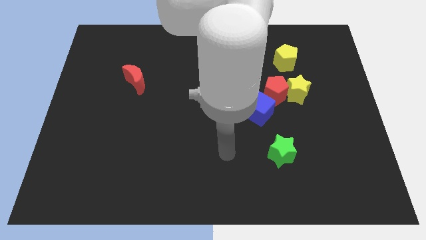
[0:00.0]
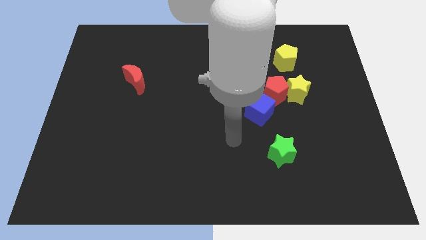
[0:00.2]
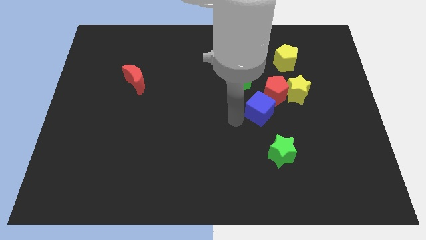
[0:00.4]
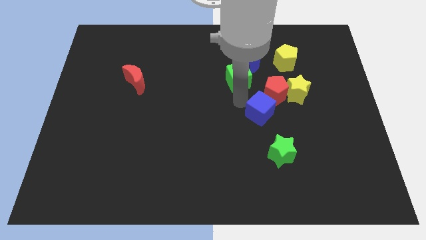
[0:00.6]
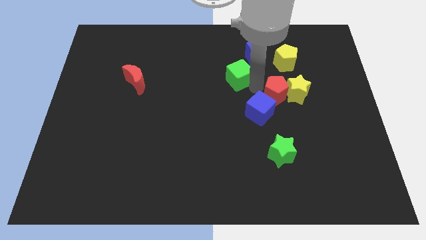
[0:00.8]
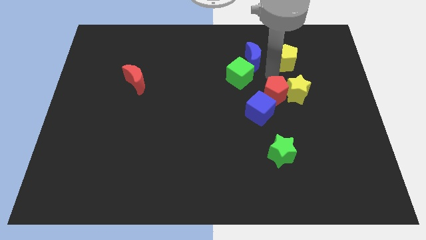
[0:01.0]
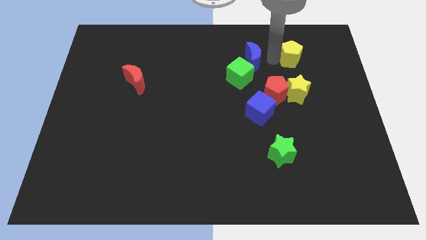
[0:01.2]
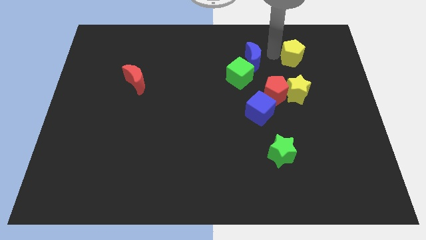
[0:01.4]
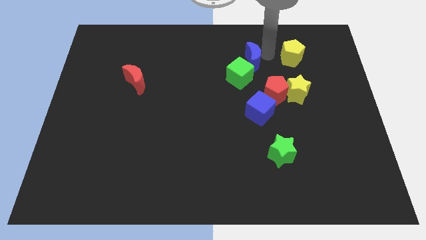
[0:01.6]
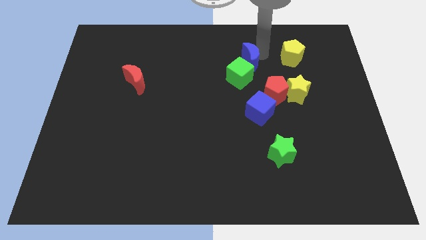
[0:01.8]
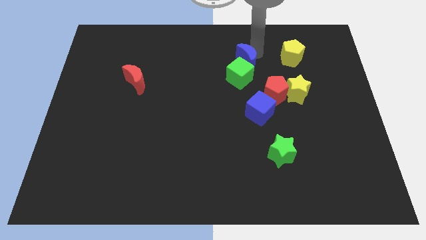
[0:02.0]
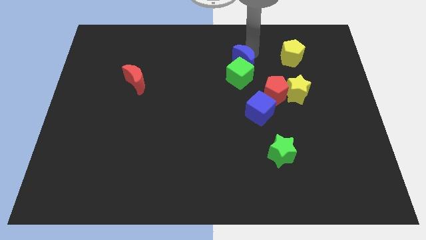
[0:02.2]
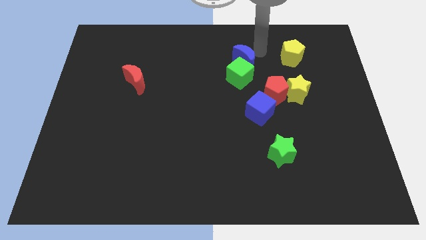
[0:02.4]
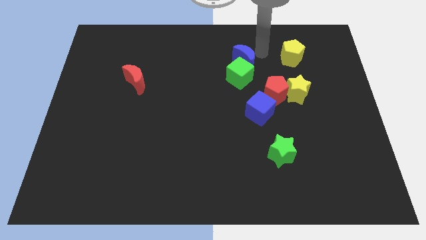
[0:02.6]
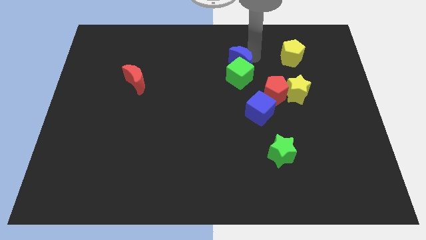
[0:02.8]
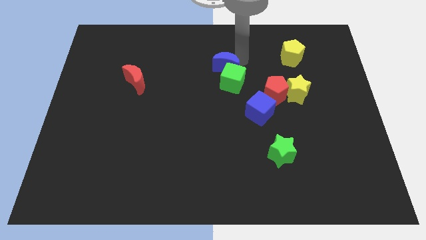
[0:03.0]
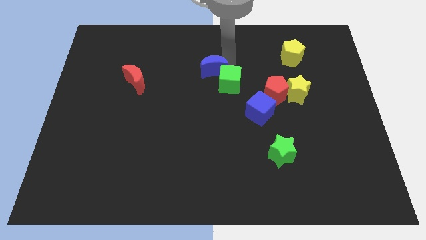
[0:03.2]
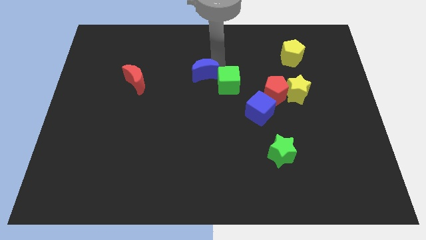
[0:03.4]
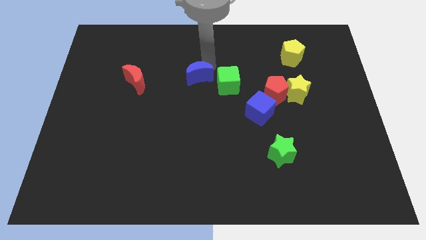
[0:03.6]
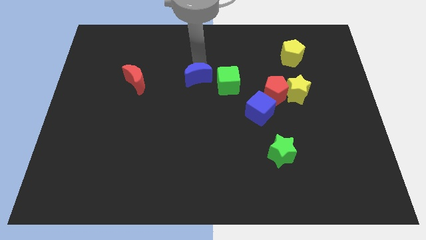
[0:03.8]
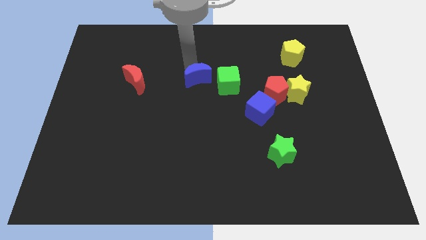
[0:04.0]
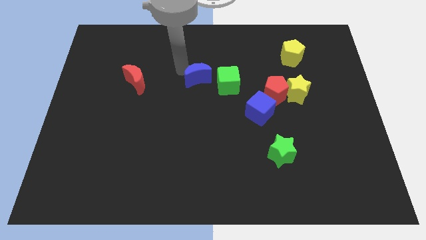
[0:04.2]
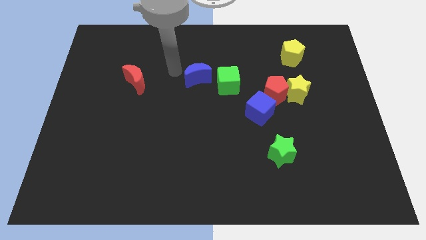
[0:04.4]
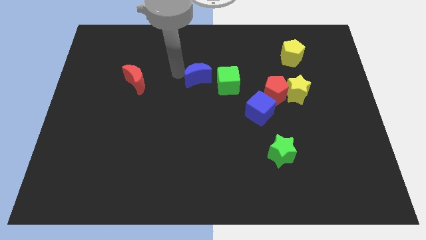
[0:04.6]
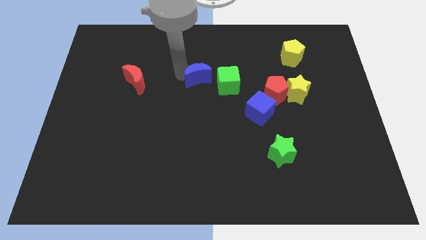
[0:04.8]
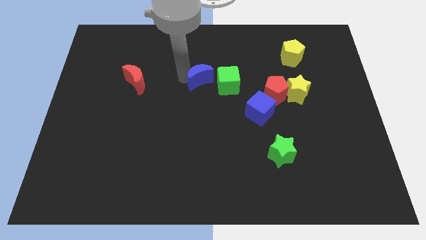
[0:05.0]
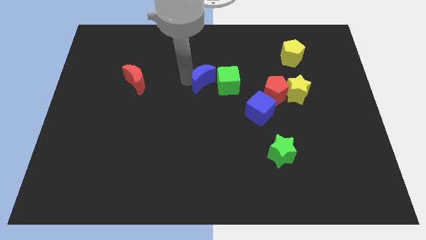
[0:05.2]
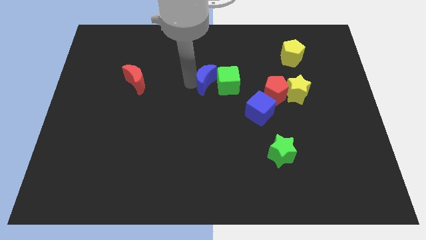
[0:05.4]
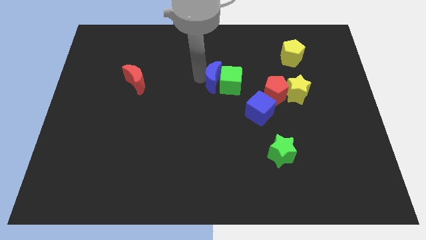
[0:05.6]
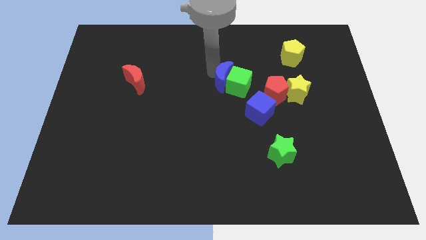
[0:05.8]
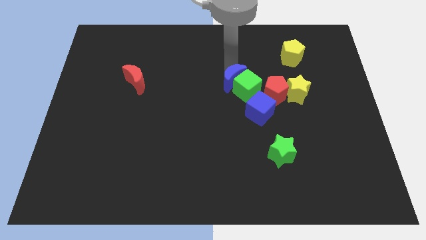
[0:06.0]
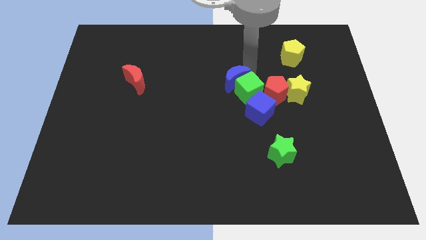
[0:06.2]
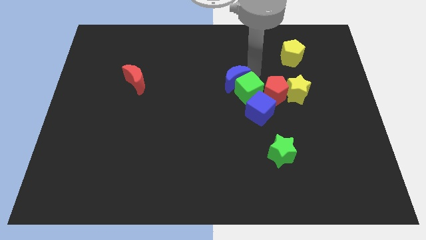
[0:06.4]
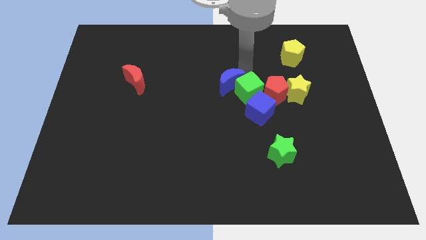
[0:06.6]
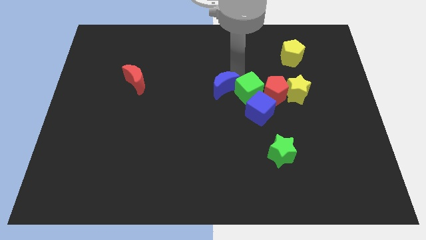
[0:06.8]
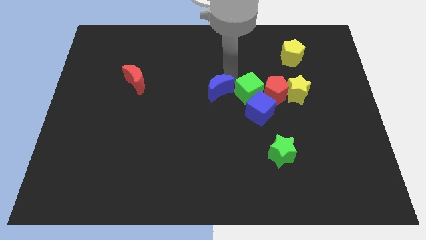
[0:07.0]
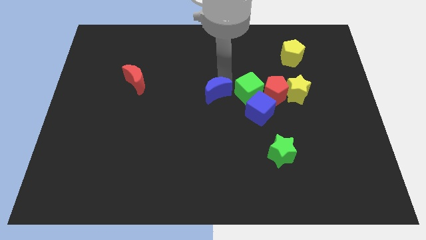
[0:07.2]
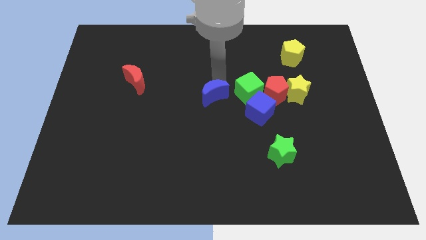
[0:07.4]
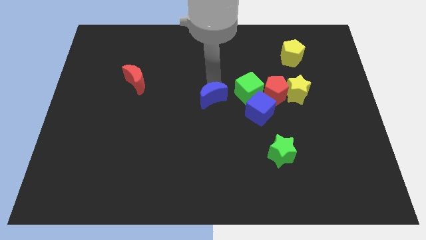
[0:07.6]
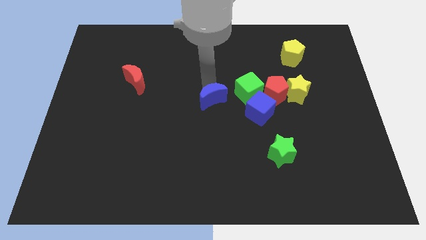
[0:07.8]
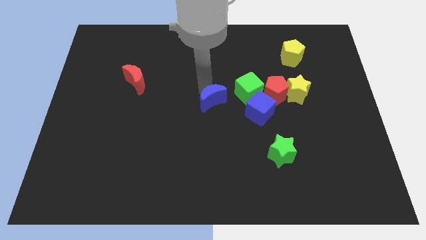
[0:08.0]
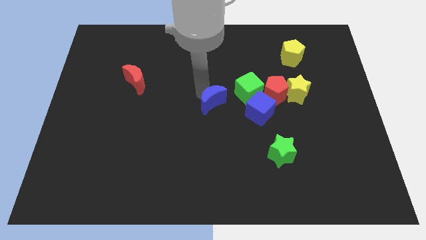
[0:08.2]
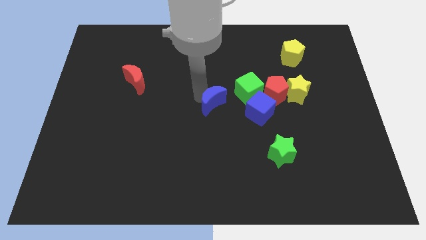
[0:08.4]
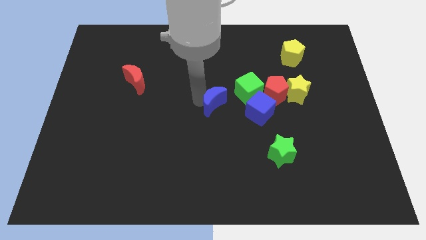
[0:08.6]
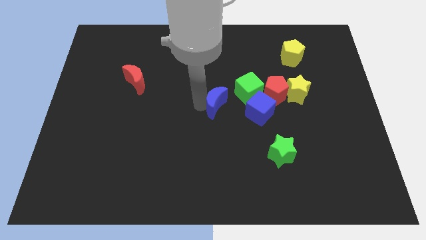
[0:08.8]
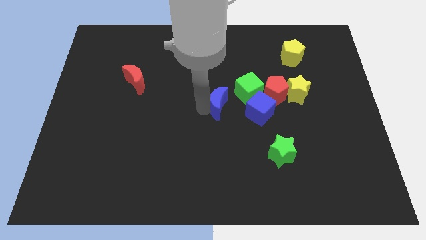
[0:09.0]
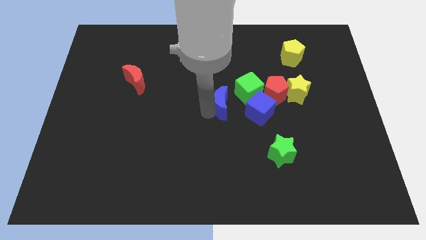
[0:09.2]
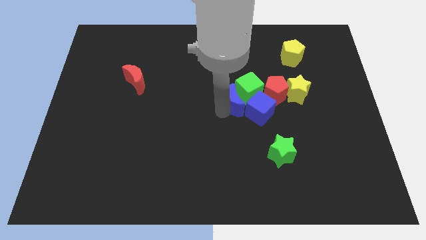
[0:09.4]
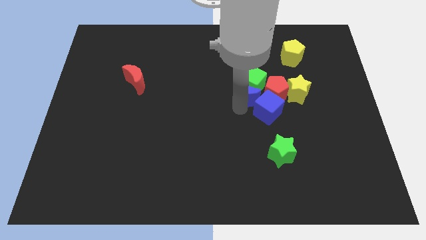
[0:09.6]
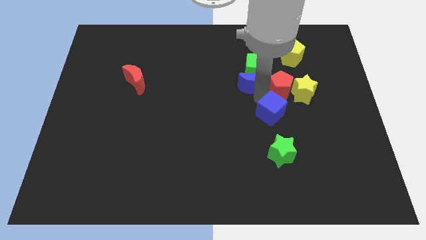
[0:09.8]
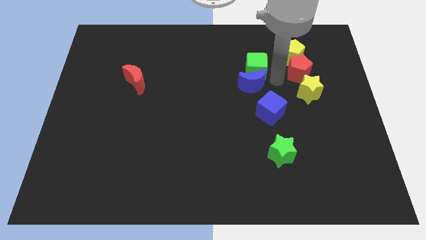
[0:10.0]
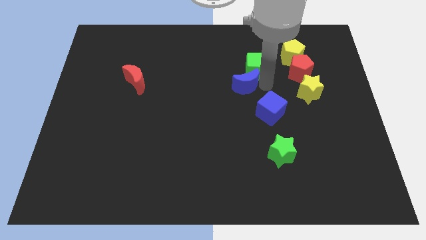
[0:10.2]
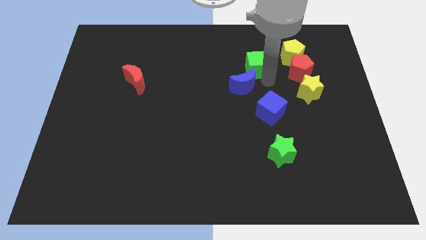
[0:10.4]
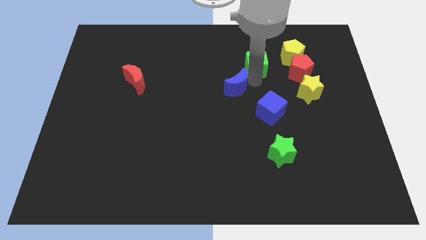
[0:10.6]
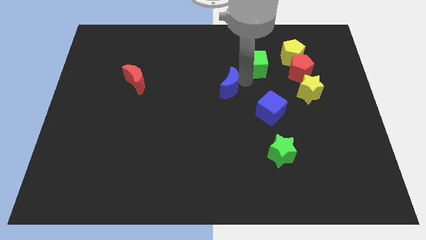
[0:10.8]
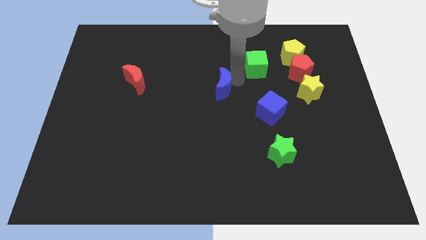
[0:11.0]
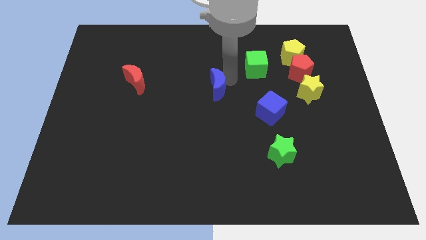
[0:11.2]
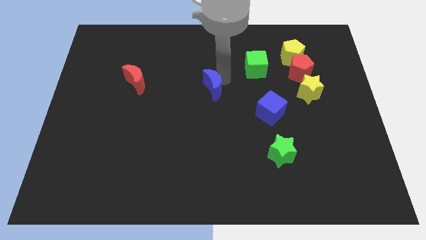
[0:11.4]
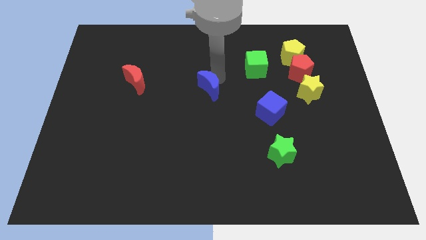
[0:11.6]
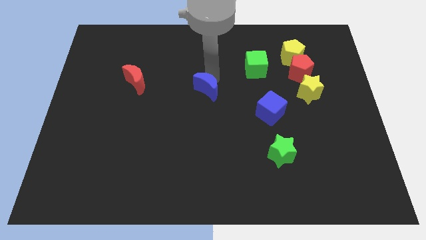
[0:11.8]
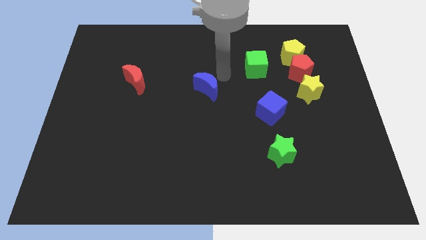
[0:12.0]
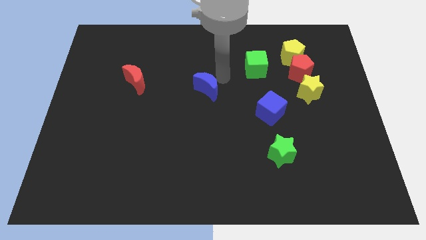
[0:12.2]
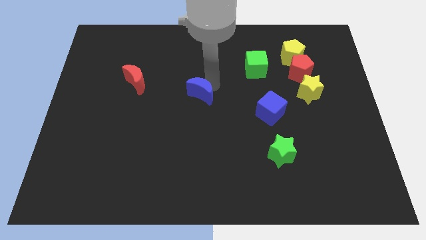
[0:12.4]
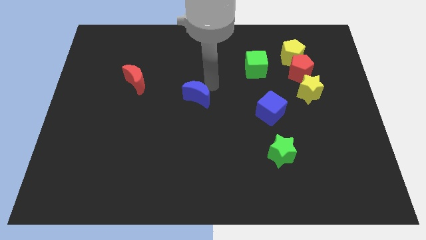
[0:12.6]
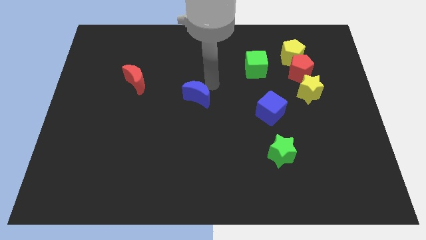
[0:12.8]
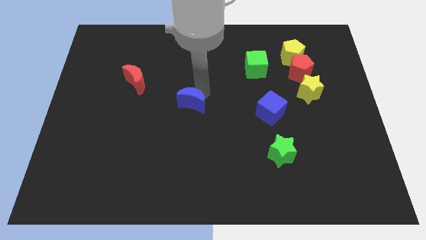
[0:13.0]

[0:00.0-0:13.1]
push the blue moon diagonally down and left

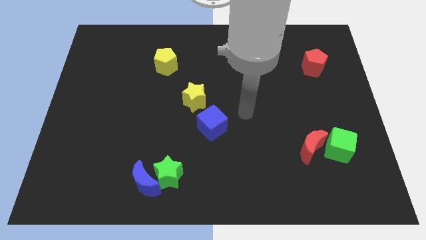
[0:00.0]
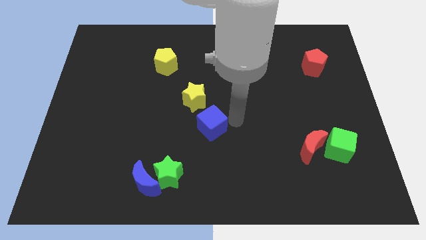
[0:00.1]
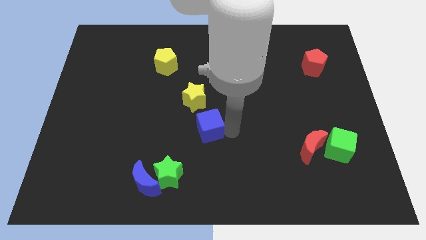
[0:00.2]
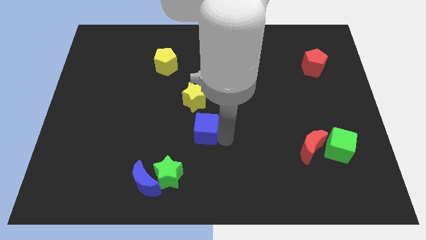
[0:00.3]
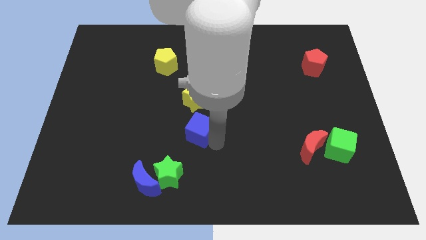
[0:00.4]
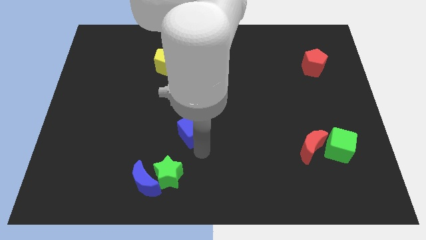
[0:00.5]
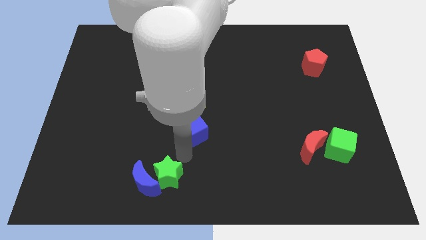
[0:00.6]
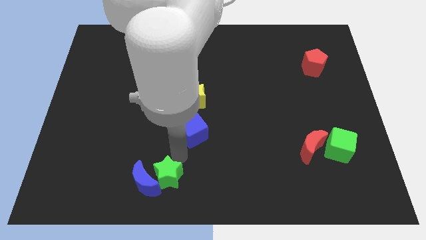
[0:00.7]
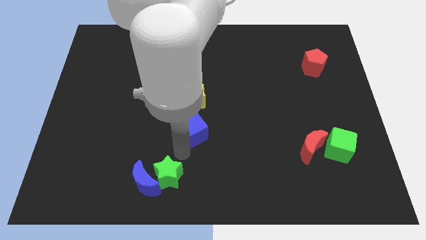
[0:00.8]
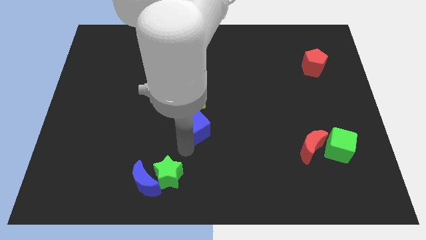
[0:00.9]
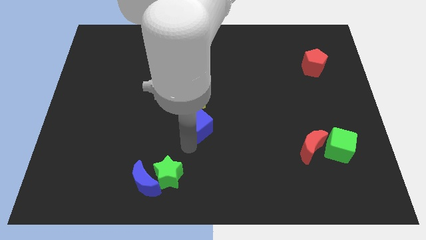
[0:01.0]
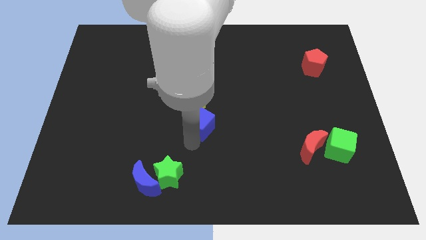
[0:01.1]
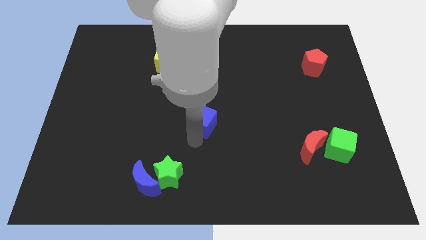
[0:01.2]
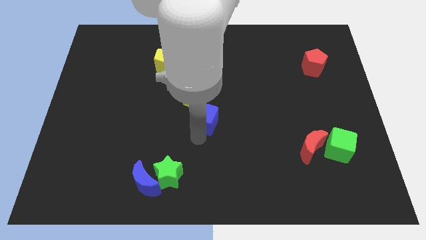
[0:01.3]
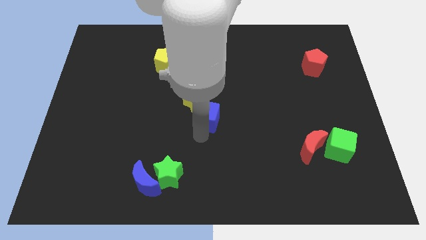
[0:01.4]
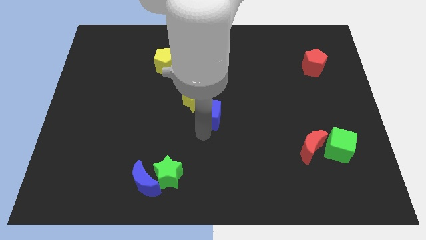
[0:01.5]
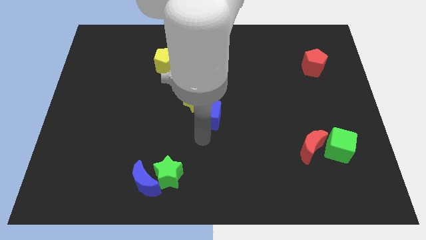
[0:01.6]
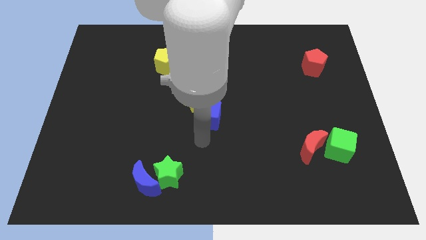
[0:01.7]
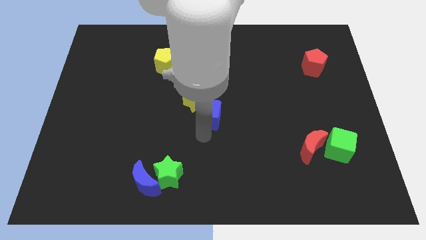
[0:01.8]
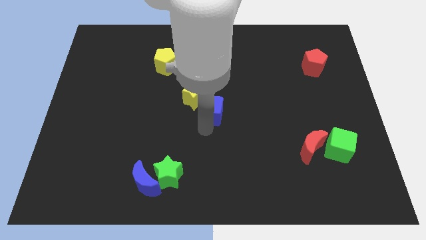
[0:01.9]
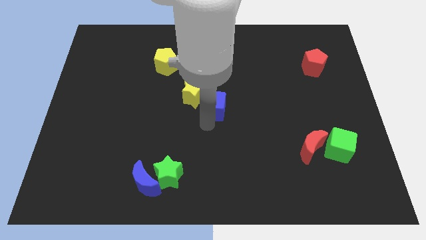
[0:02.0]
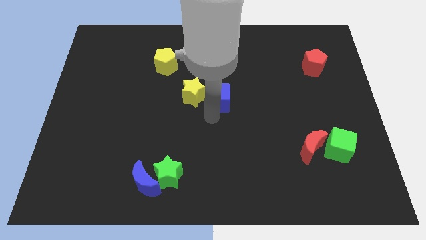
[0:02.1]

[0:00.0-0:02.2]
slide the blue cube a little up
